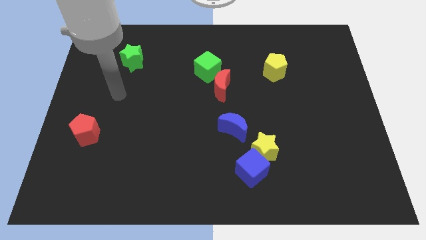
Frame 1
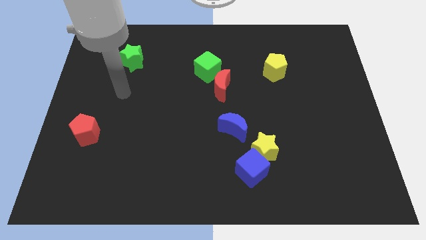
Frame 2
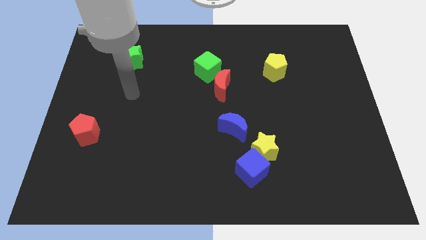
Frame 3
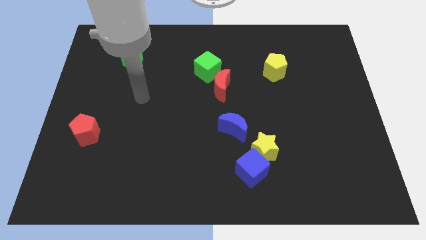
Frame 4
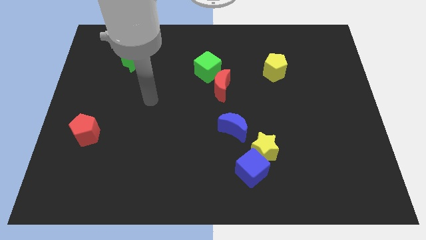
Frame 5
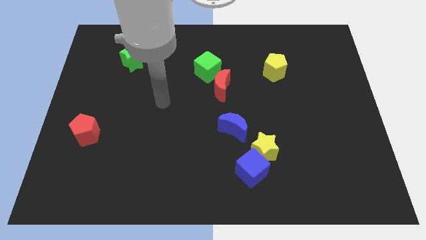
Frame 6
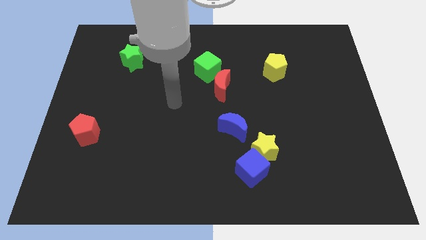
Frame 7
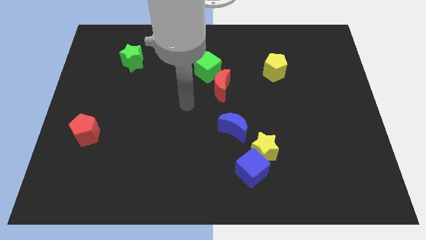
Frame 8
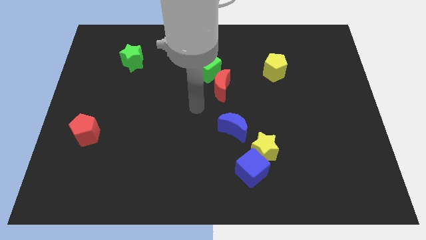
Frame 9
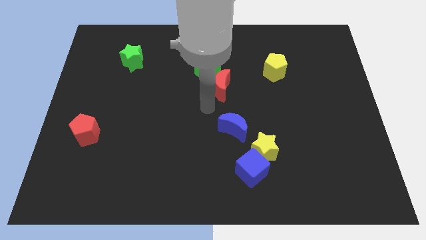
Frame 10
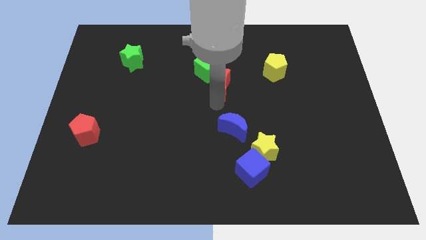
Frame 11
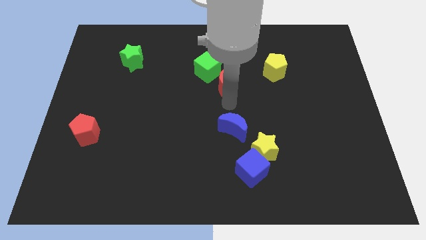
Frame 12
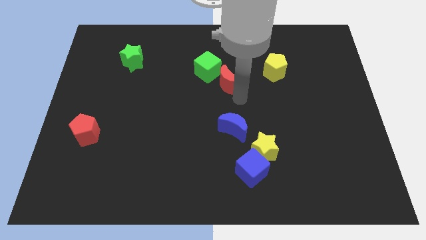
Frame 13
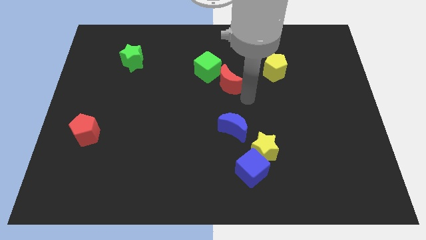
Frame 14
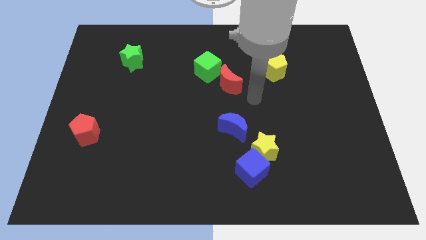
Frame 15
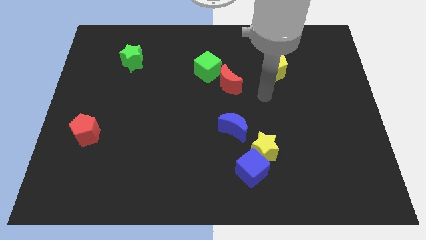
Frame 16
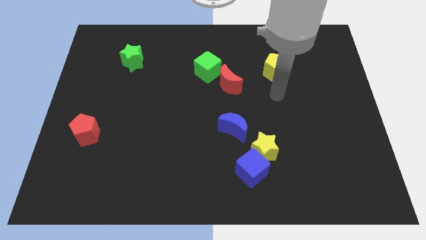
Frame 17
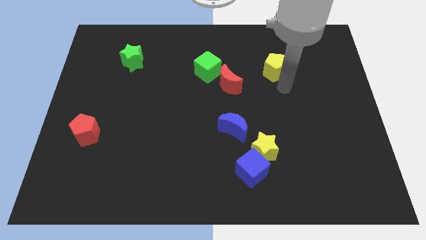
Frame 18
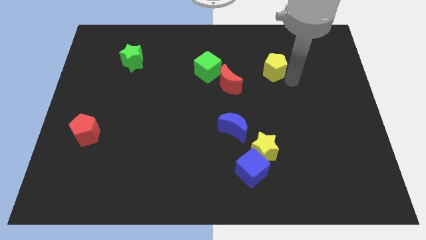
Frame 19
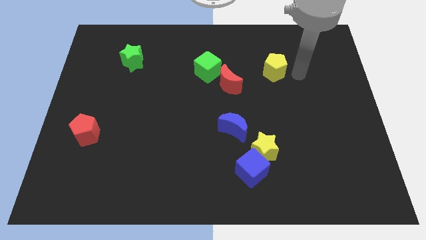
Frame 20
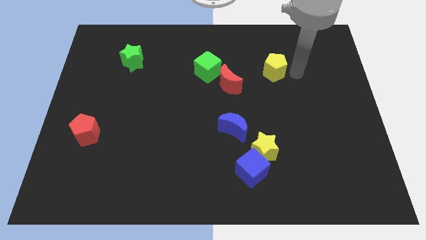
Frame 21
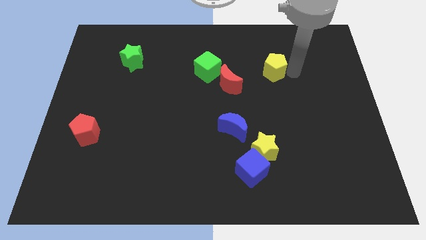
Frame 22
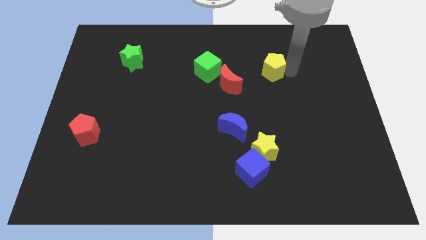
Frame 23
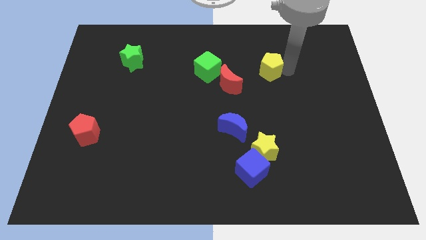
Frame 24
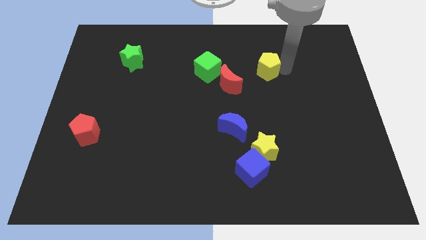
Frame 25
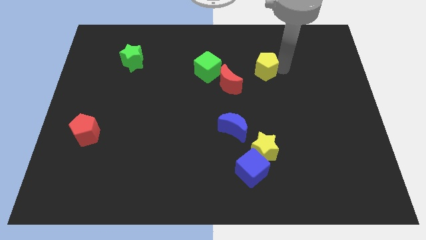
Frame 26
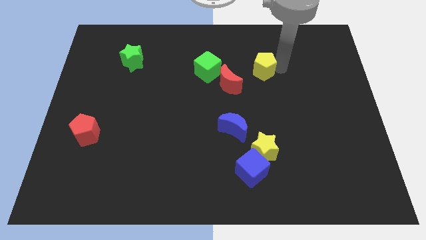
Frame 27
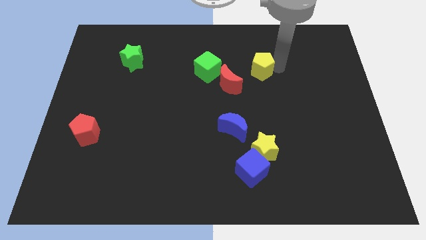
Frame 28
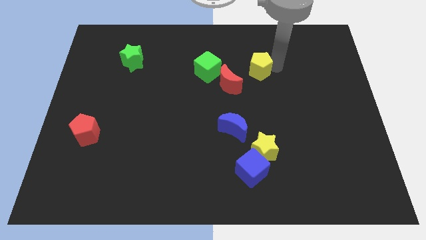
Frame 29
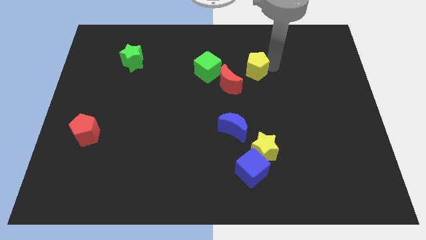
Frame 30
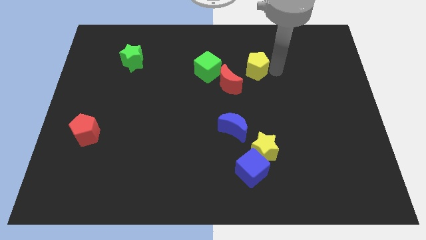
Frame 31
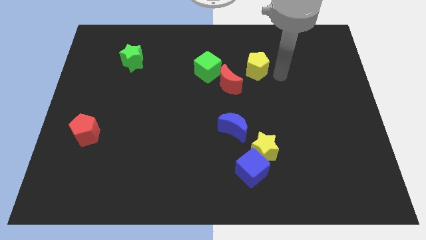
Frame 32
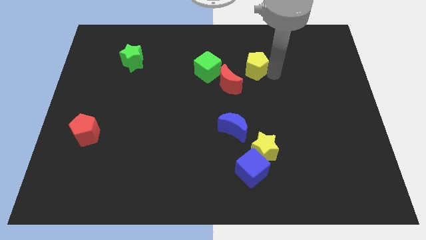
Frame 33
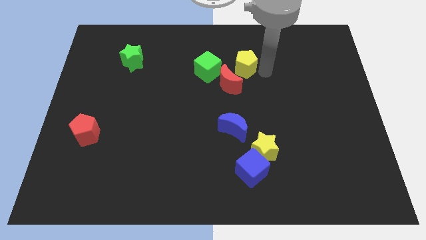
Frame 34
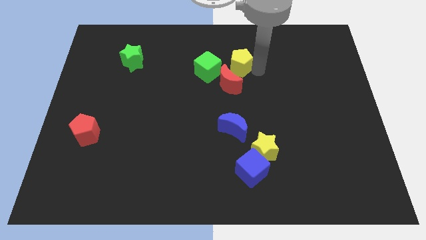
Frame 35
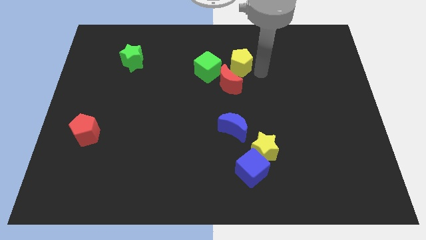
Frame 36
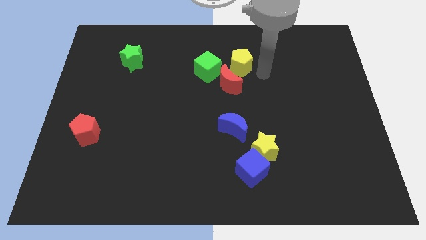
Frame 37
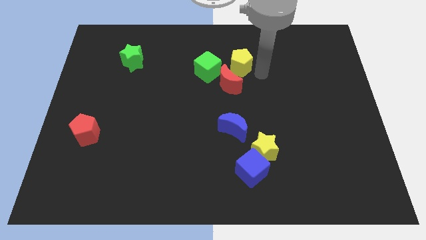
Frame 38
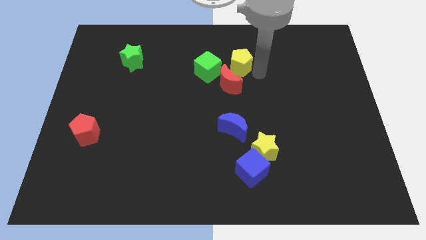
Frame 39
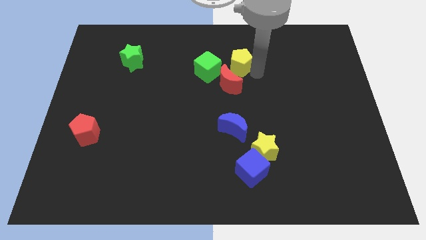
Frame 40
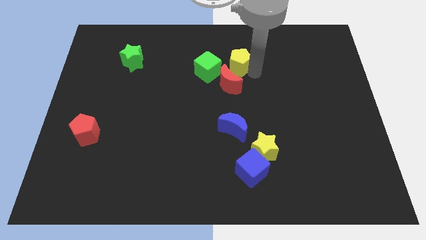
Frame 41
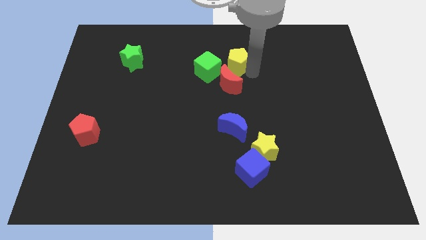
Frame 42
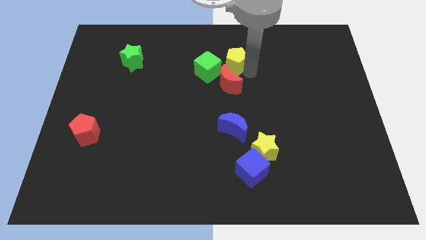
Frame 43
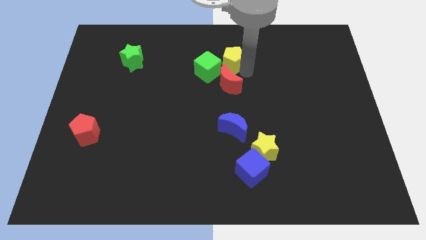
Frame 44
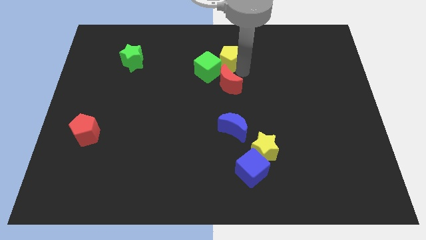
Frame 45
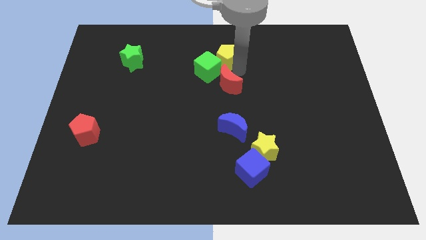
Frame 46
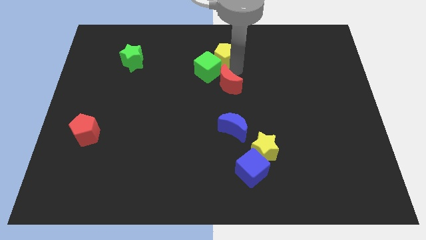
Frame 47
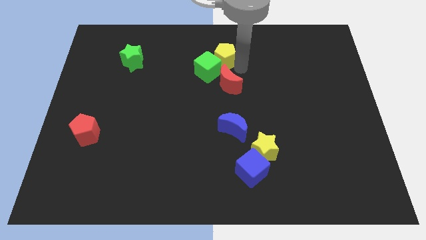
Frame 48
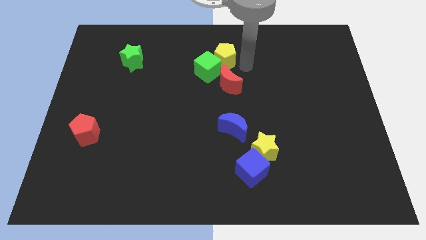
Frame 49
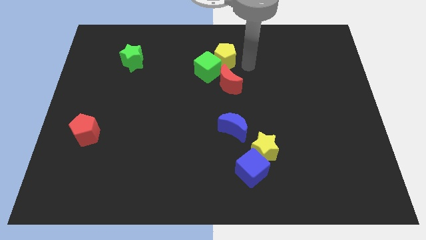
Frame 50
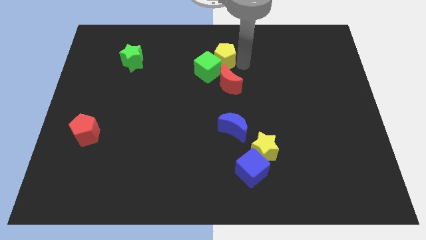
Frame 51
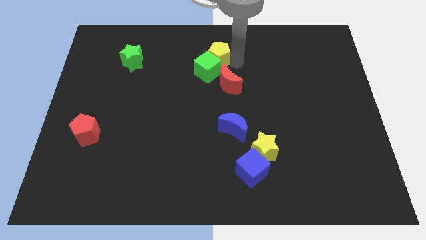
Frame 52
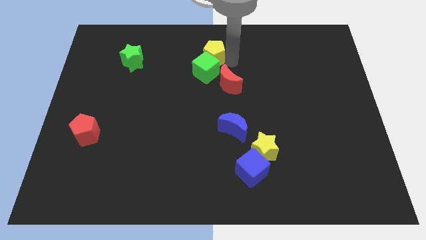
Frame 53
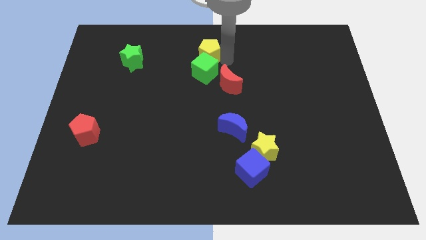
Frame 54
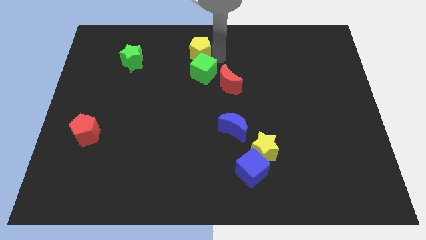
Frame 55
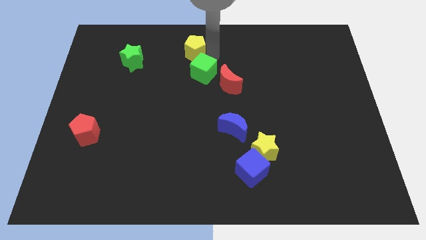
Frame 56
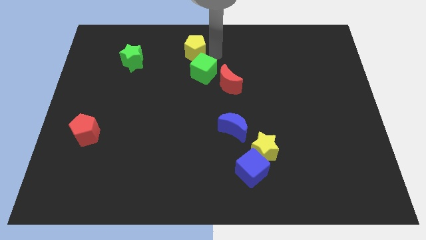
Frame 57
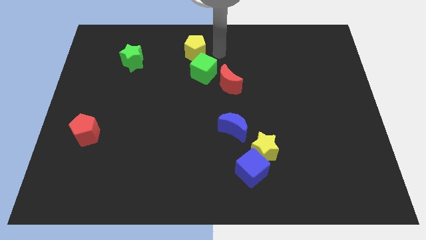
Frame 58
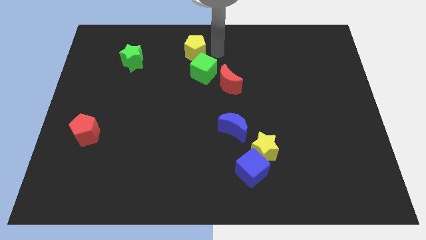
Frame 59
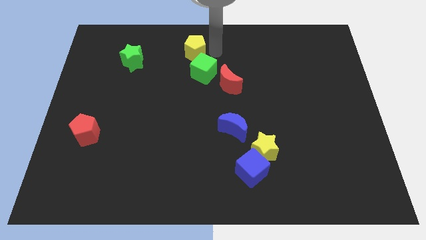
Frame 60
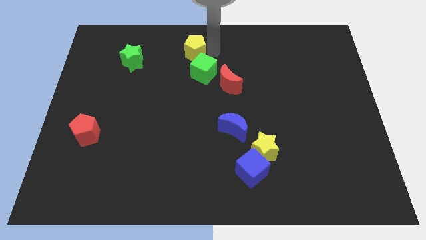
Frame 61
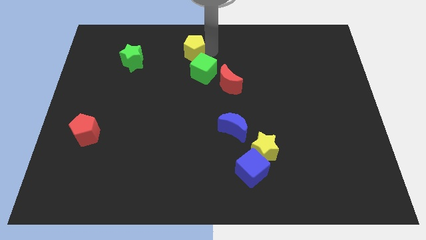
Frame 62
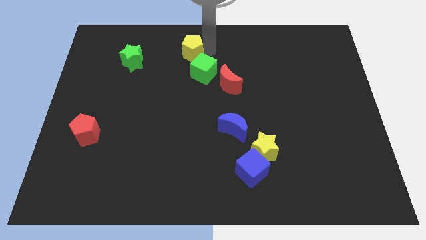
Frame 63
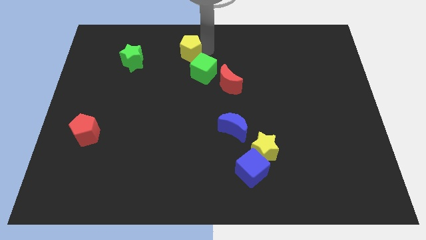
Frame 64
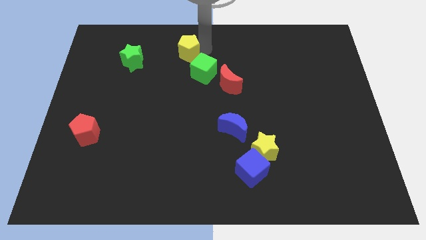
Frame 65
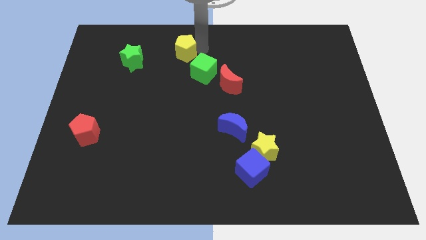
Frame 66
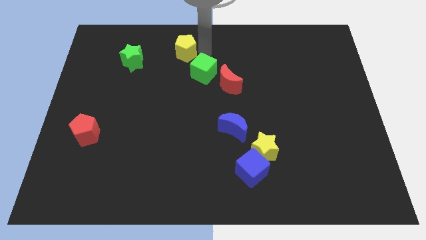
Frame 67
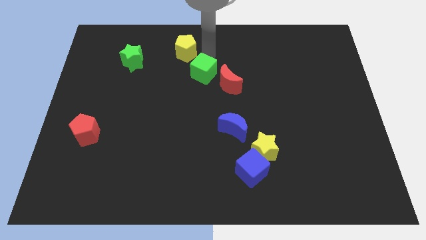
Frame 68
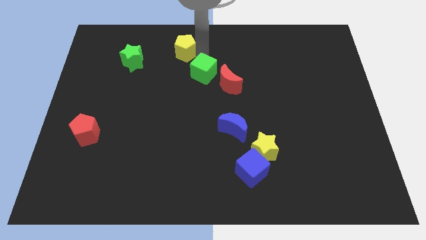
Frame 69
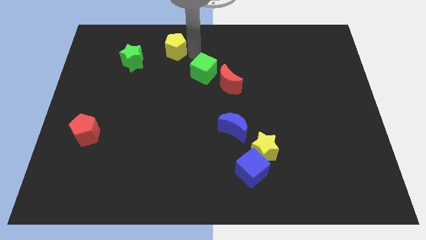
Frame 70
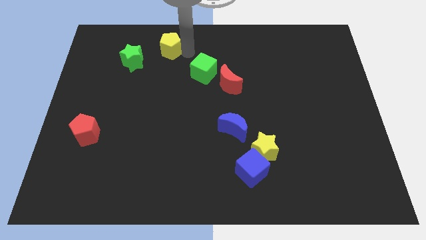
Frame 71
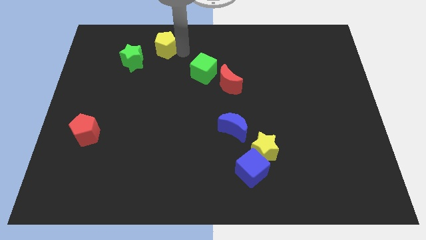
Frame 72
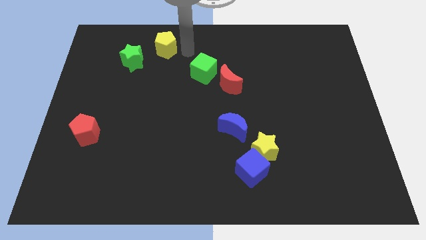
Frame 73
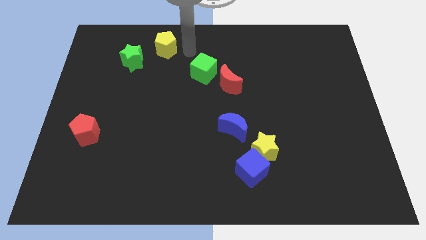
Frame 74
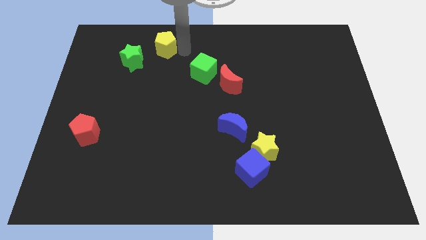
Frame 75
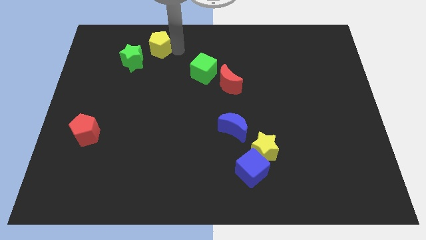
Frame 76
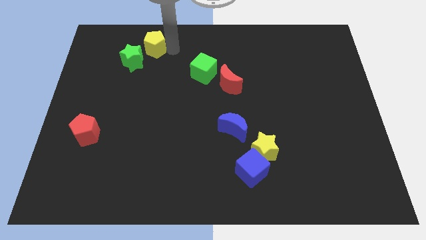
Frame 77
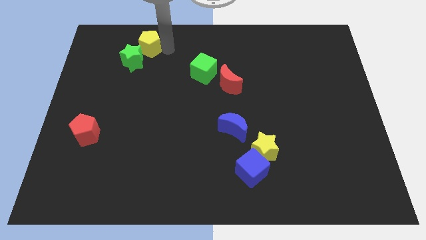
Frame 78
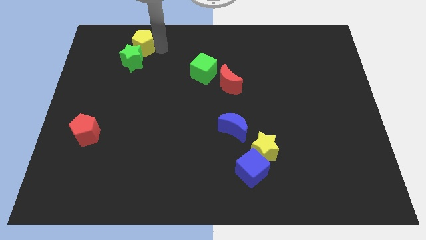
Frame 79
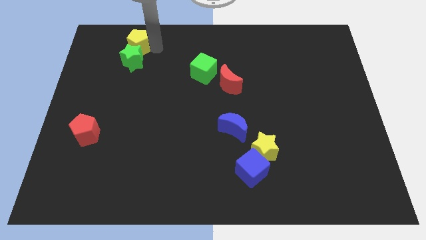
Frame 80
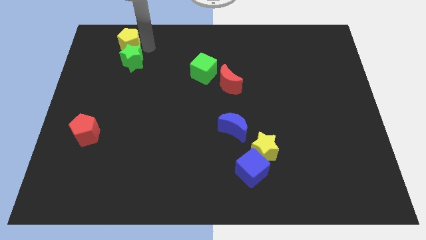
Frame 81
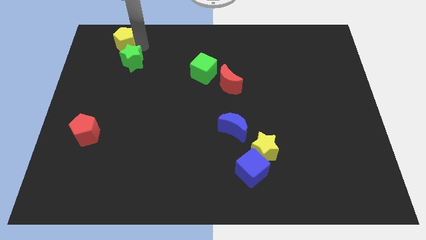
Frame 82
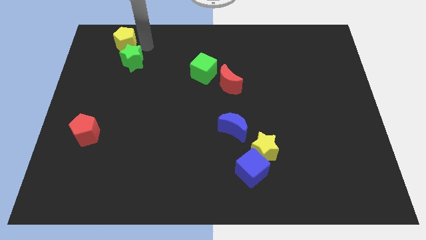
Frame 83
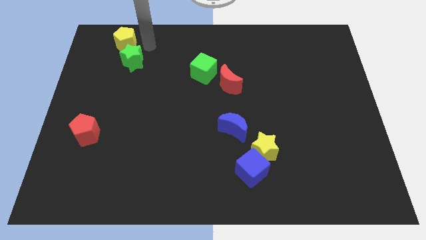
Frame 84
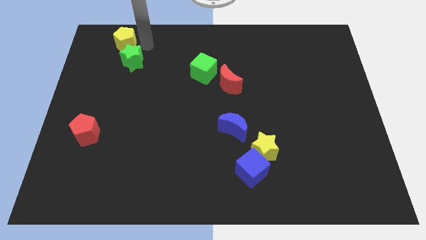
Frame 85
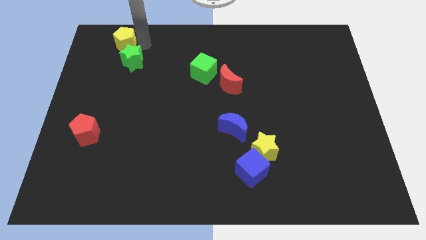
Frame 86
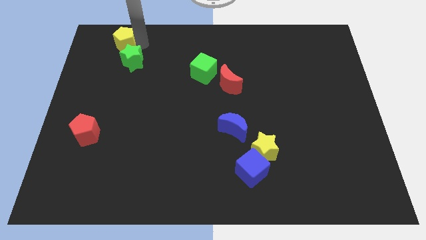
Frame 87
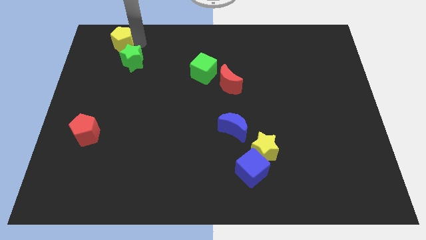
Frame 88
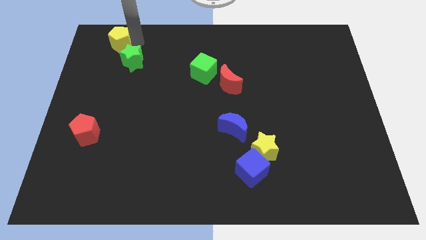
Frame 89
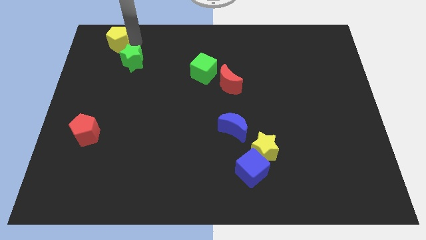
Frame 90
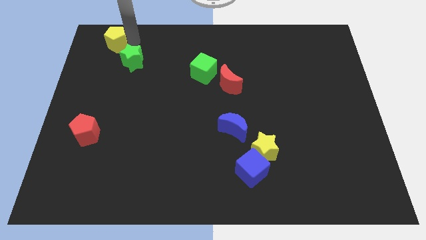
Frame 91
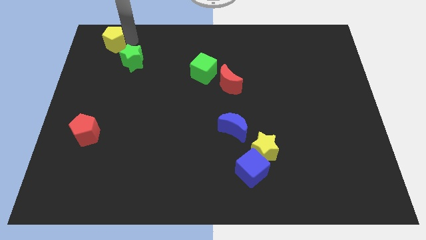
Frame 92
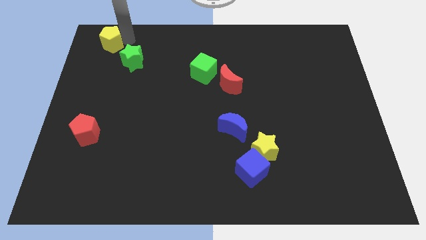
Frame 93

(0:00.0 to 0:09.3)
slide the yellow pentagon to the top left
